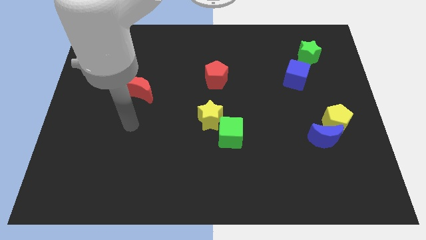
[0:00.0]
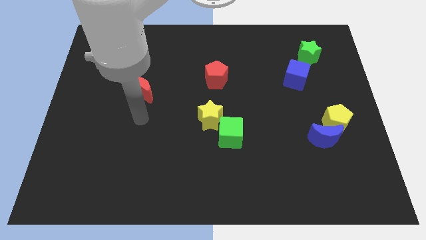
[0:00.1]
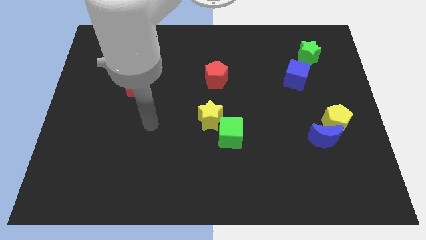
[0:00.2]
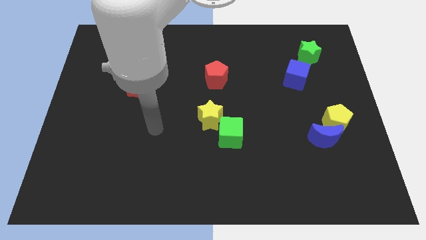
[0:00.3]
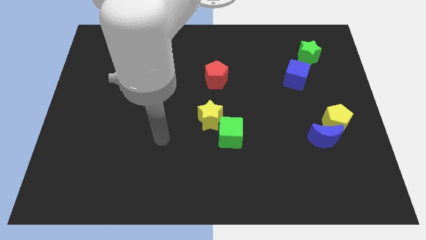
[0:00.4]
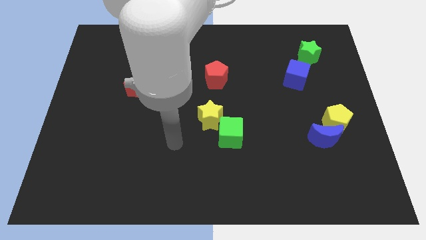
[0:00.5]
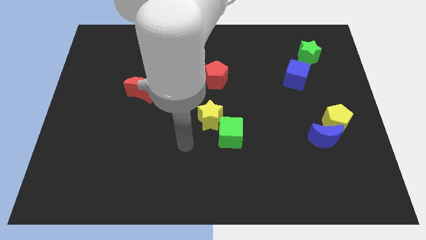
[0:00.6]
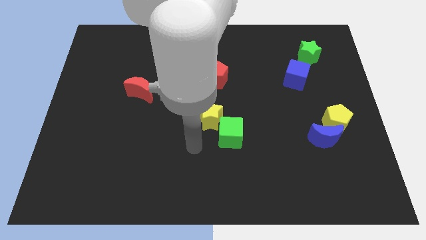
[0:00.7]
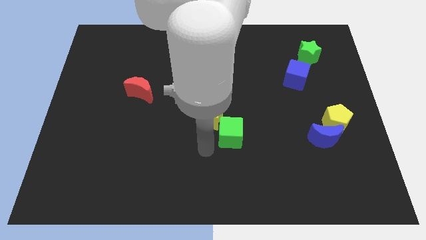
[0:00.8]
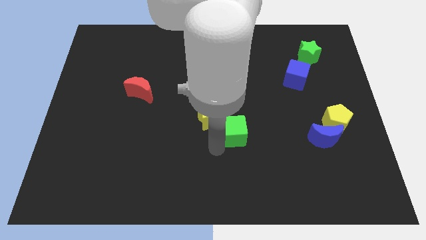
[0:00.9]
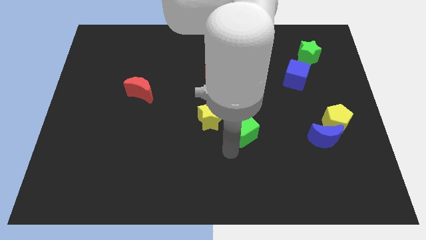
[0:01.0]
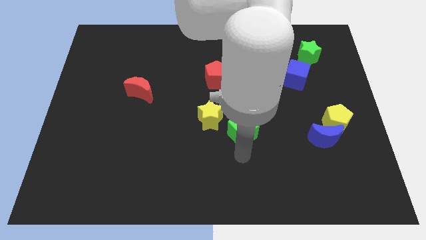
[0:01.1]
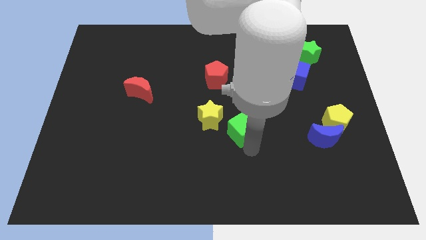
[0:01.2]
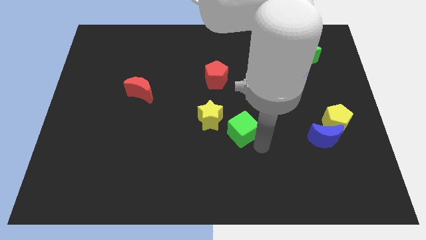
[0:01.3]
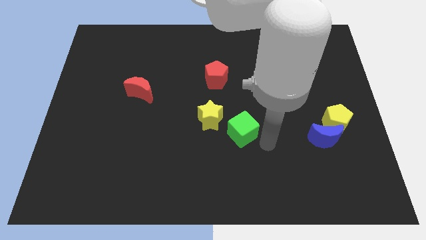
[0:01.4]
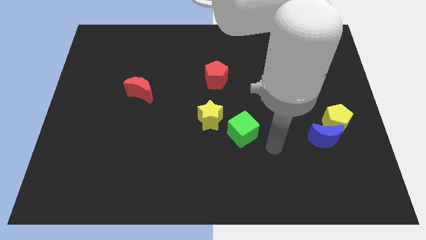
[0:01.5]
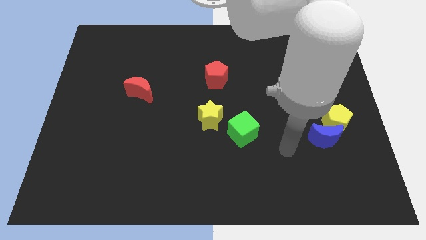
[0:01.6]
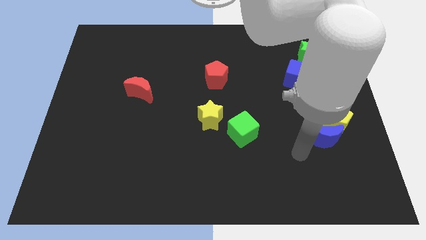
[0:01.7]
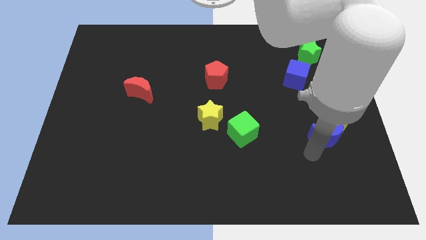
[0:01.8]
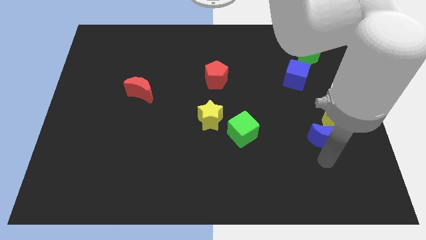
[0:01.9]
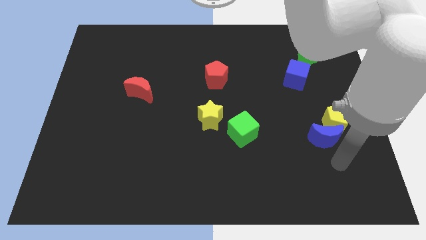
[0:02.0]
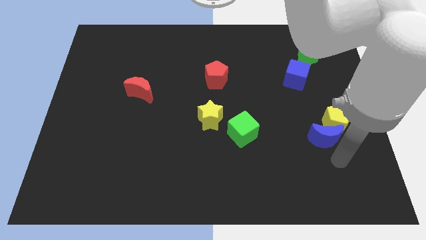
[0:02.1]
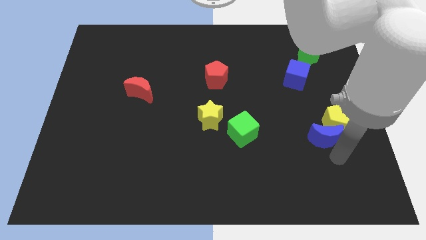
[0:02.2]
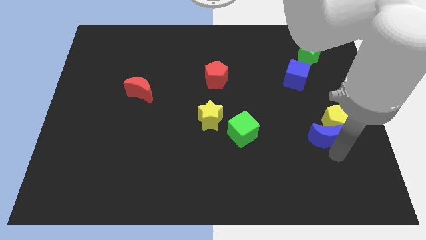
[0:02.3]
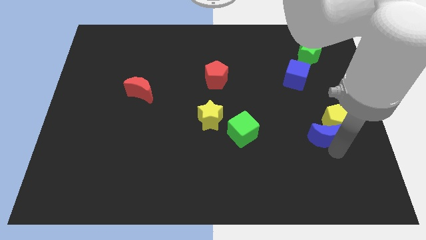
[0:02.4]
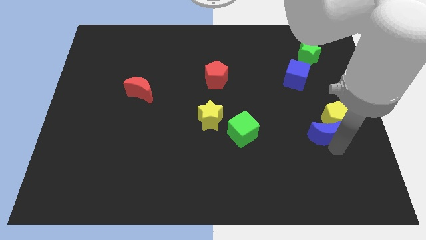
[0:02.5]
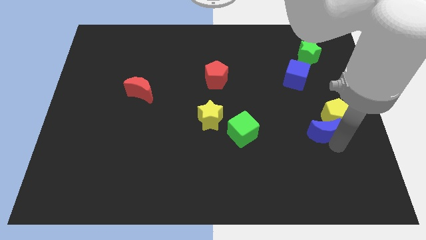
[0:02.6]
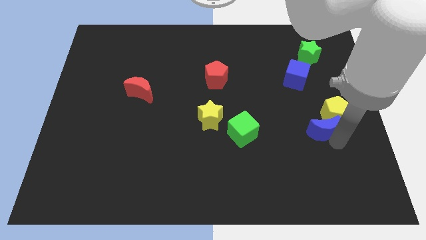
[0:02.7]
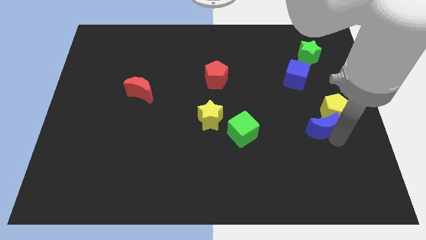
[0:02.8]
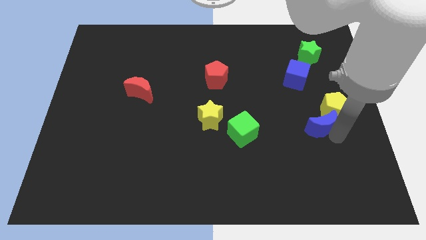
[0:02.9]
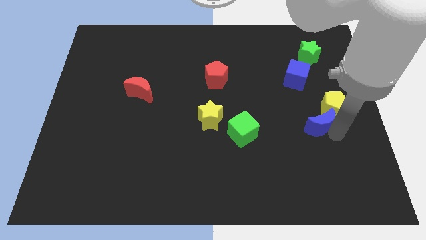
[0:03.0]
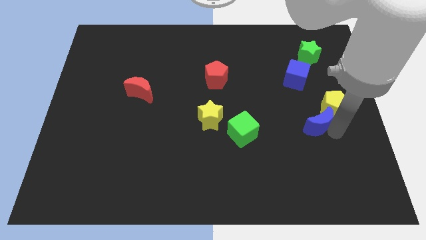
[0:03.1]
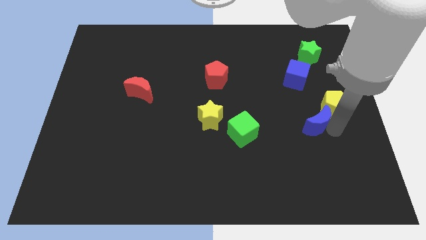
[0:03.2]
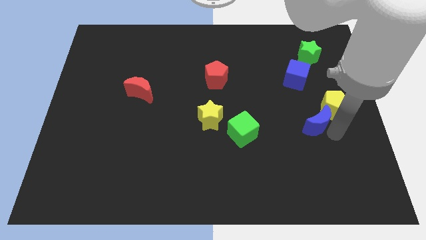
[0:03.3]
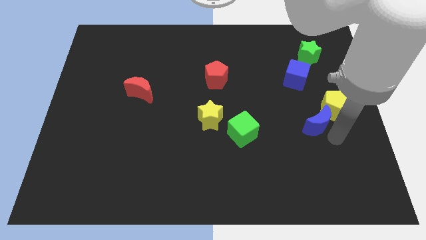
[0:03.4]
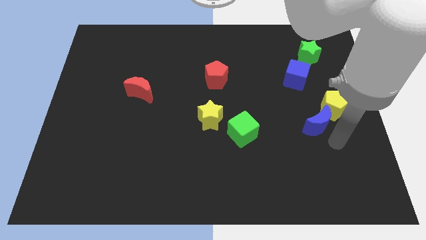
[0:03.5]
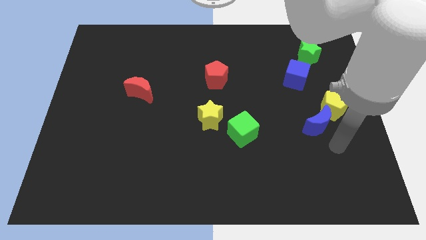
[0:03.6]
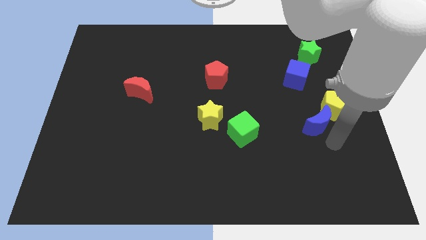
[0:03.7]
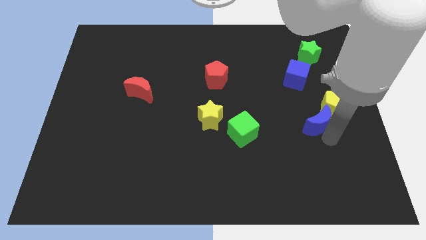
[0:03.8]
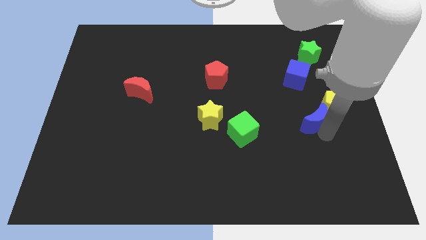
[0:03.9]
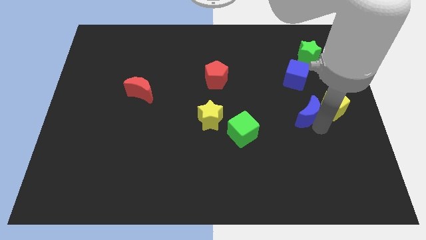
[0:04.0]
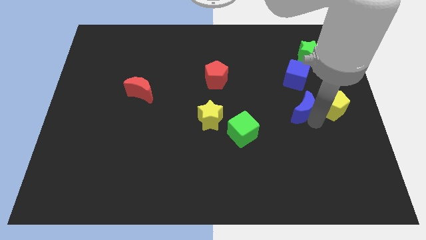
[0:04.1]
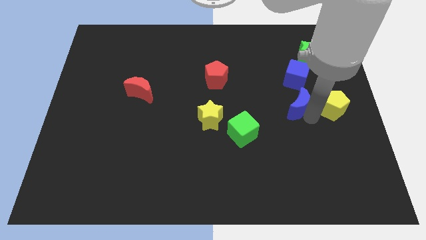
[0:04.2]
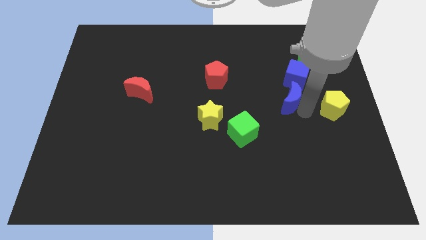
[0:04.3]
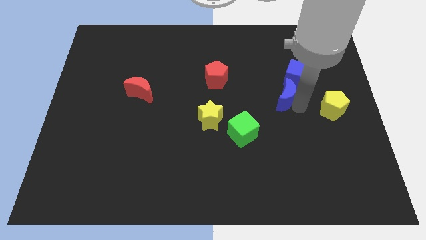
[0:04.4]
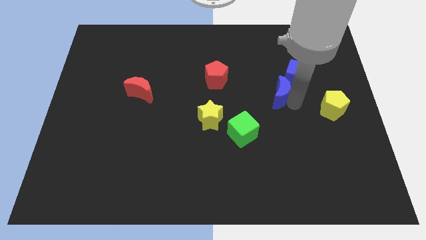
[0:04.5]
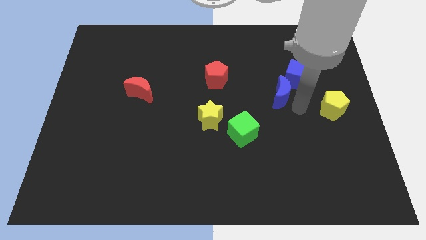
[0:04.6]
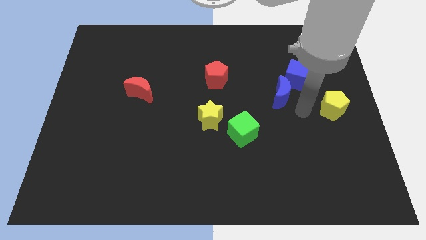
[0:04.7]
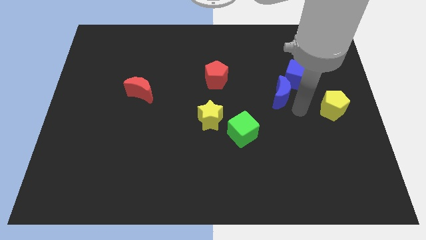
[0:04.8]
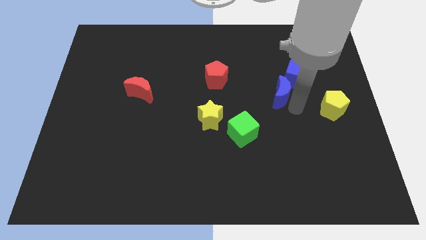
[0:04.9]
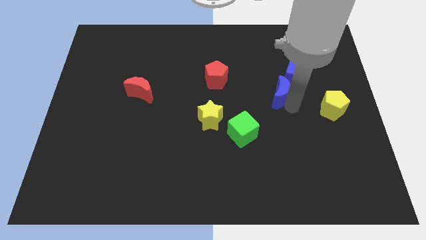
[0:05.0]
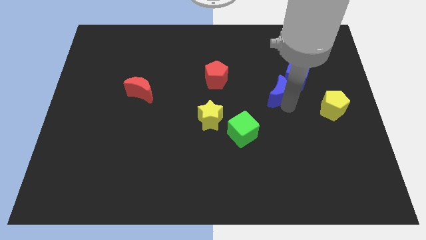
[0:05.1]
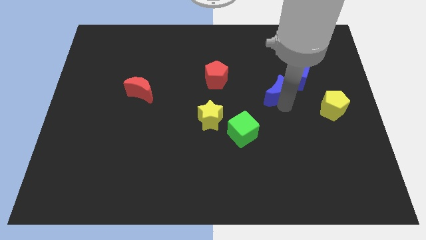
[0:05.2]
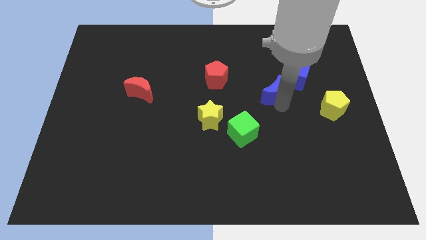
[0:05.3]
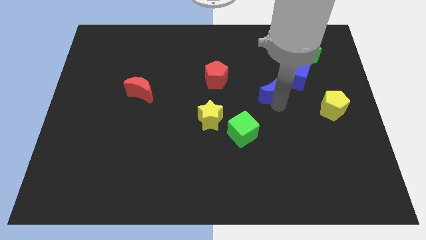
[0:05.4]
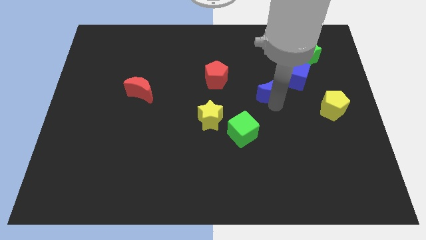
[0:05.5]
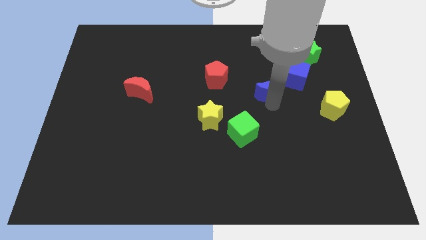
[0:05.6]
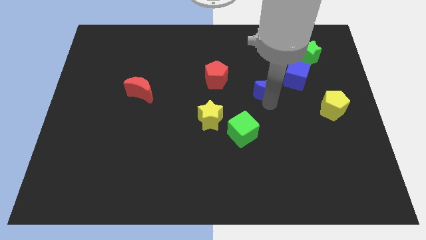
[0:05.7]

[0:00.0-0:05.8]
put the blue moon to the right of the red pentagon
